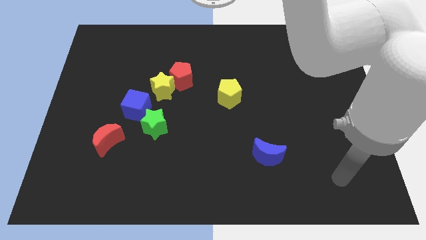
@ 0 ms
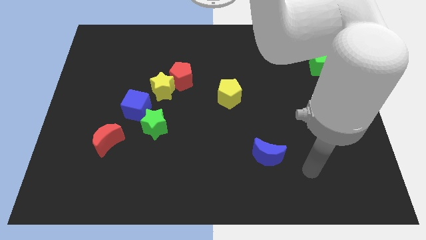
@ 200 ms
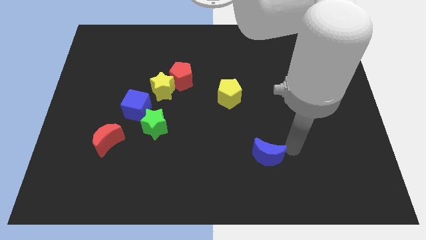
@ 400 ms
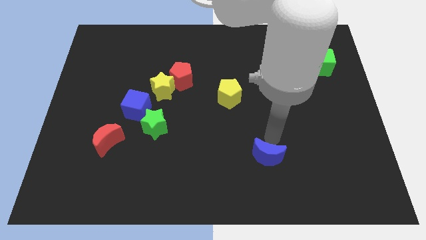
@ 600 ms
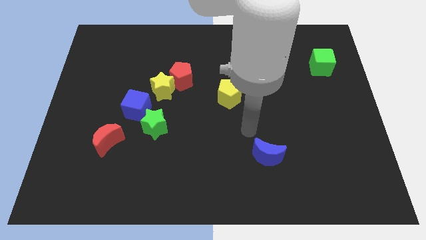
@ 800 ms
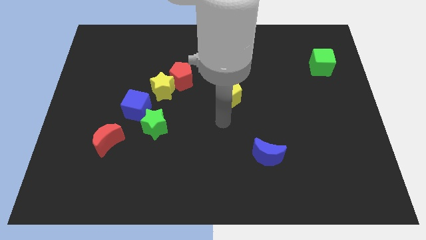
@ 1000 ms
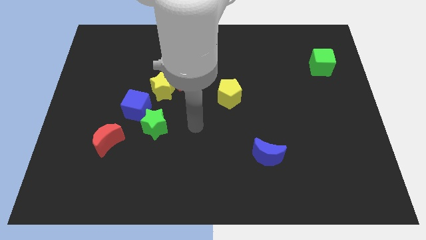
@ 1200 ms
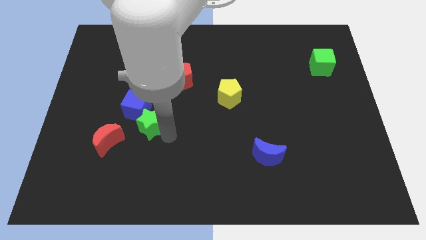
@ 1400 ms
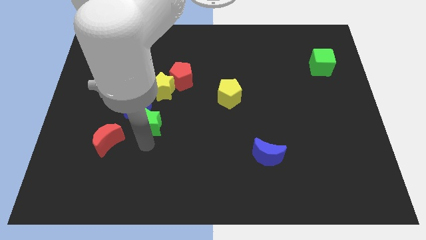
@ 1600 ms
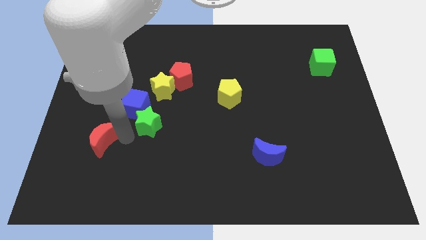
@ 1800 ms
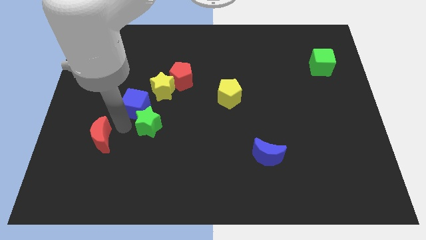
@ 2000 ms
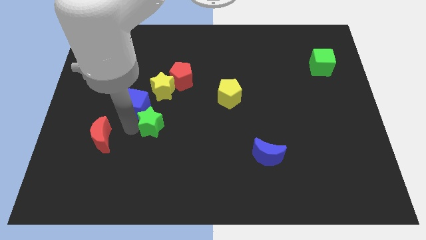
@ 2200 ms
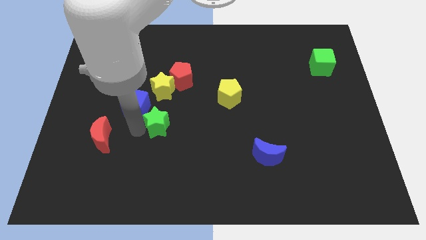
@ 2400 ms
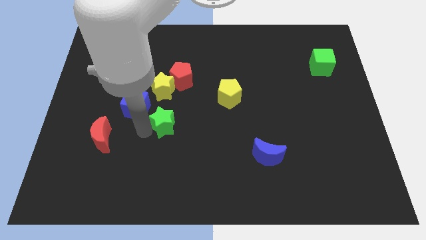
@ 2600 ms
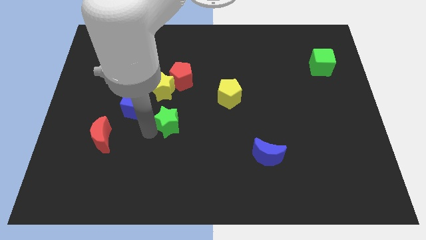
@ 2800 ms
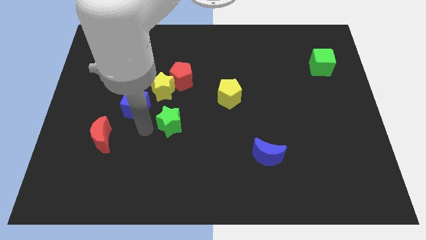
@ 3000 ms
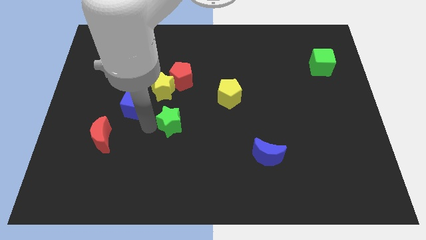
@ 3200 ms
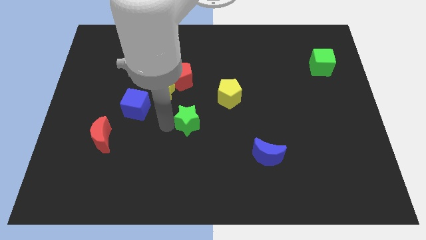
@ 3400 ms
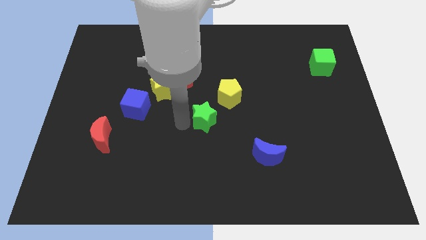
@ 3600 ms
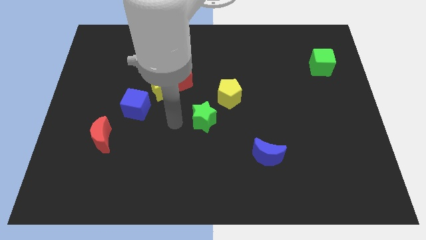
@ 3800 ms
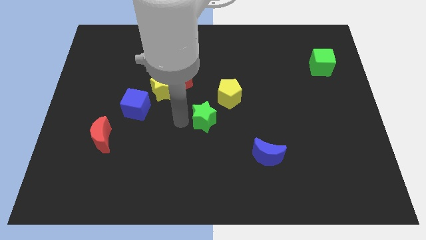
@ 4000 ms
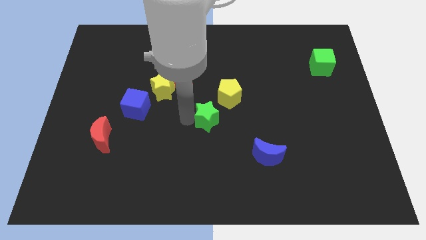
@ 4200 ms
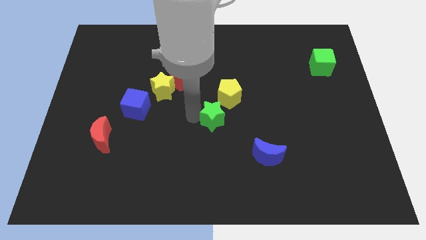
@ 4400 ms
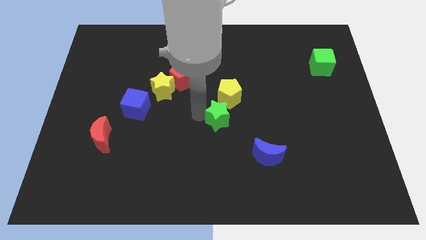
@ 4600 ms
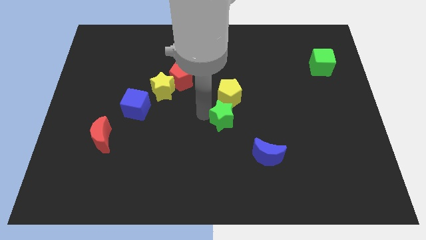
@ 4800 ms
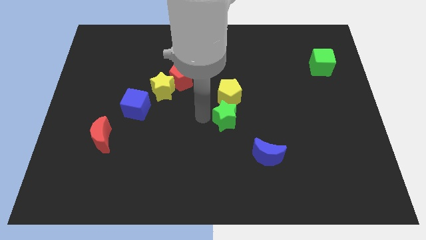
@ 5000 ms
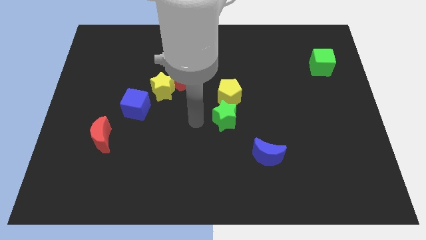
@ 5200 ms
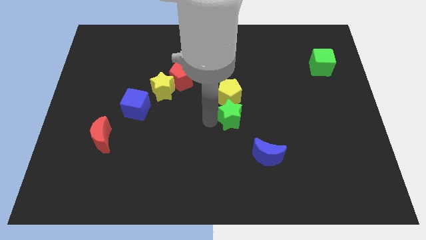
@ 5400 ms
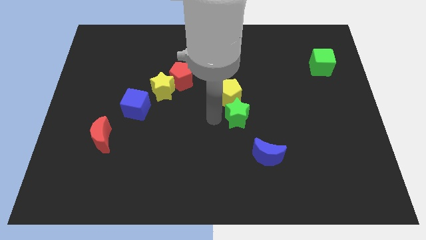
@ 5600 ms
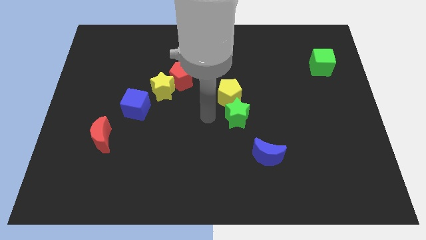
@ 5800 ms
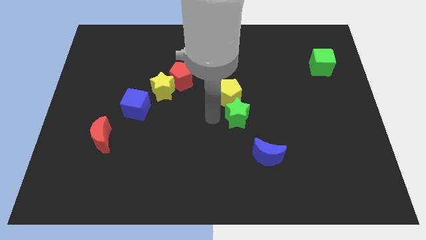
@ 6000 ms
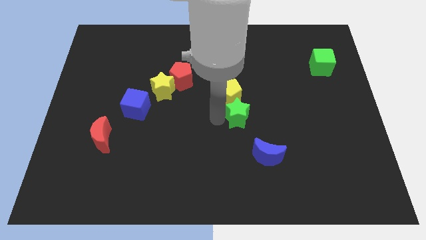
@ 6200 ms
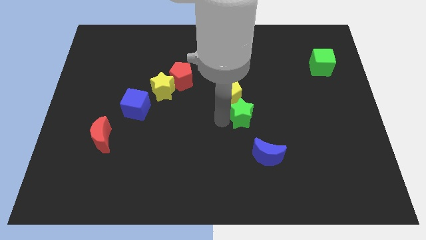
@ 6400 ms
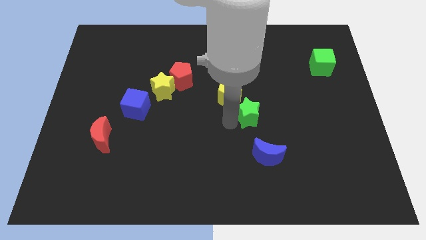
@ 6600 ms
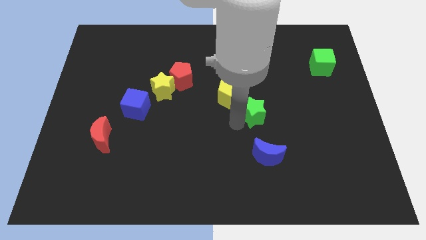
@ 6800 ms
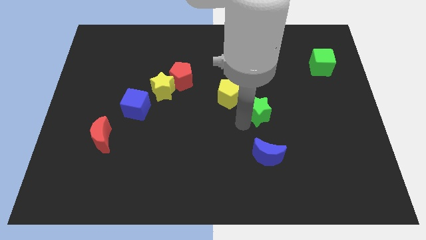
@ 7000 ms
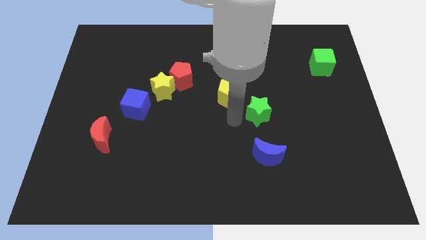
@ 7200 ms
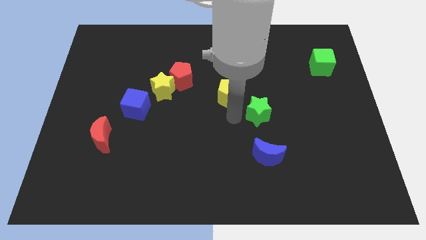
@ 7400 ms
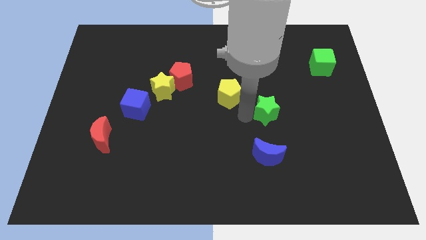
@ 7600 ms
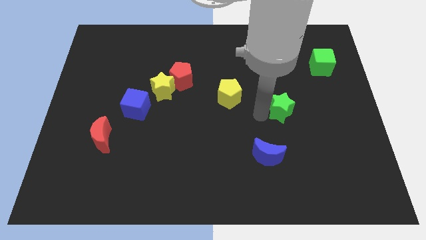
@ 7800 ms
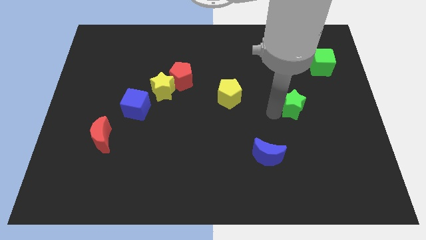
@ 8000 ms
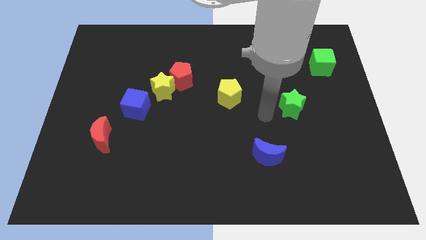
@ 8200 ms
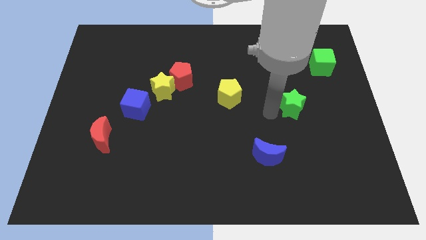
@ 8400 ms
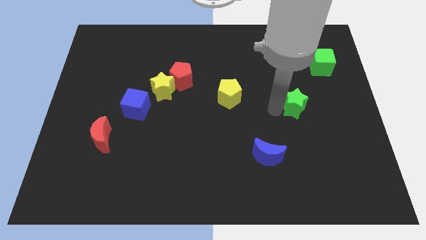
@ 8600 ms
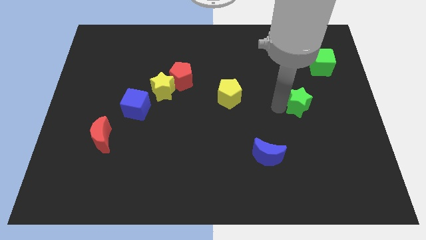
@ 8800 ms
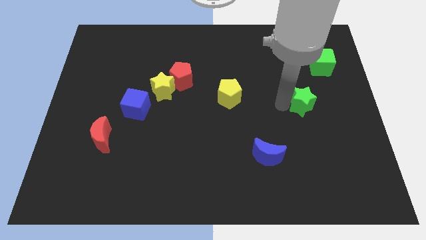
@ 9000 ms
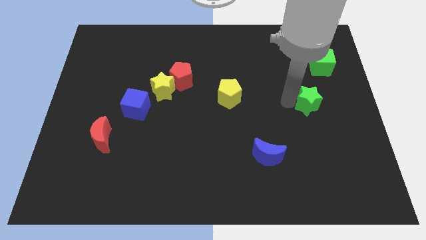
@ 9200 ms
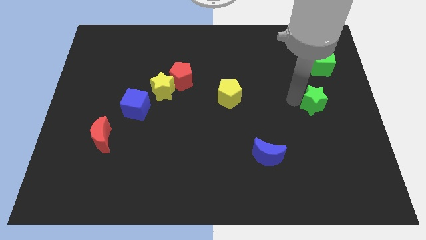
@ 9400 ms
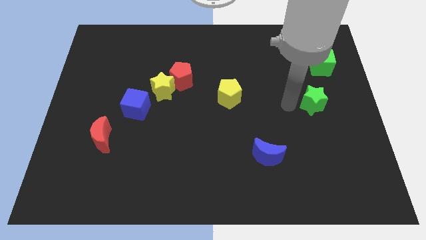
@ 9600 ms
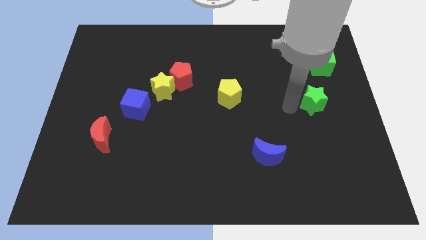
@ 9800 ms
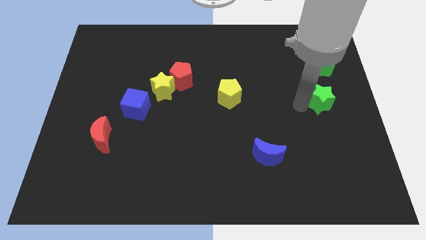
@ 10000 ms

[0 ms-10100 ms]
move the green star to the center right

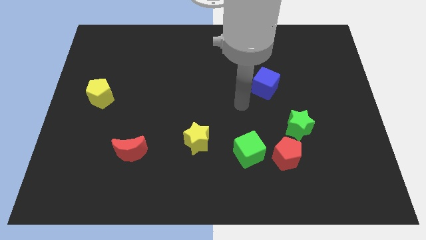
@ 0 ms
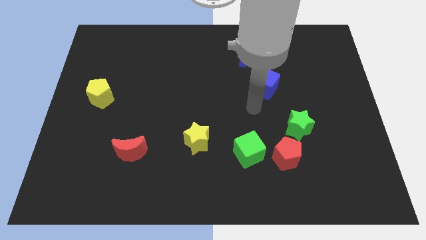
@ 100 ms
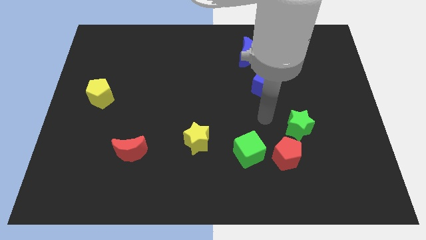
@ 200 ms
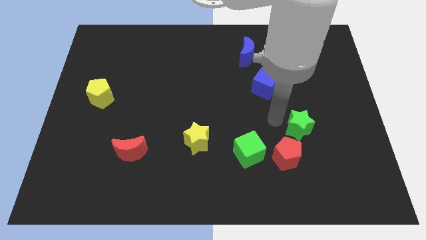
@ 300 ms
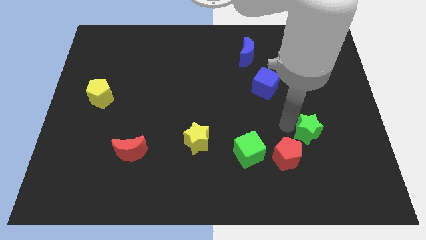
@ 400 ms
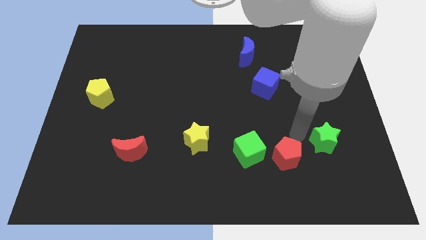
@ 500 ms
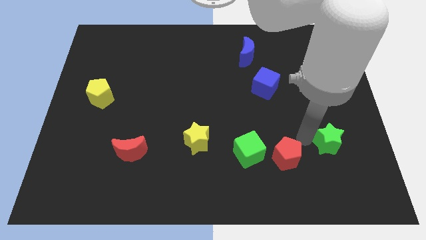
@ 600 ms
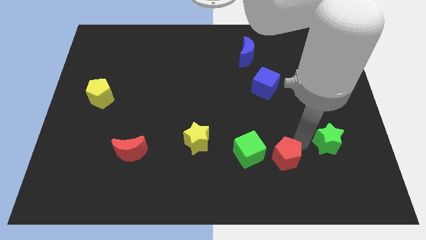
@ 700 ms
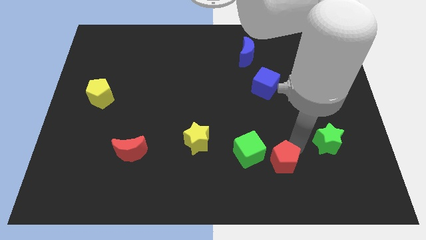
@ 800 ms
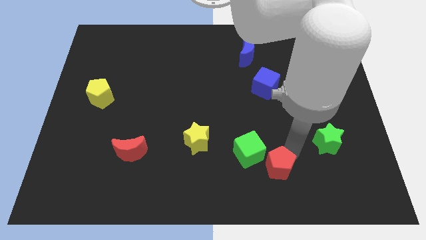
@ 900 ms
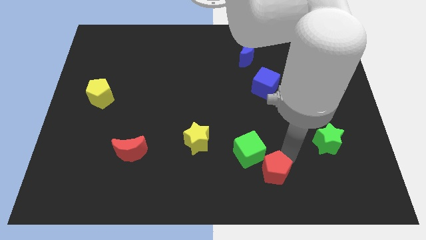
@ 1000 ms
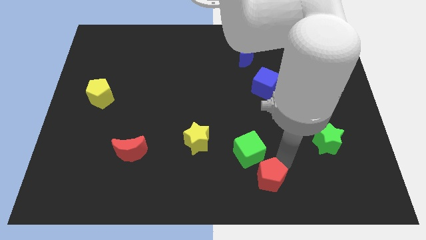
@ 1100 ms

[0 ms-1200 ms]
move the red pentagon to the bottom side

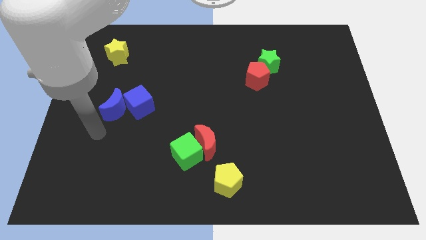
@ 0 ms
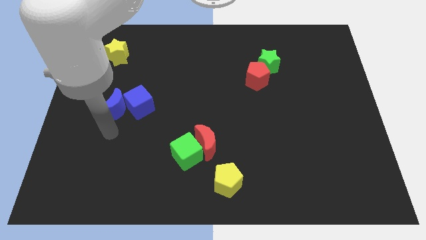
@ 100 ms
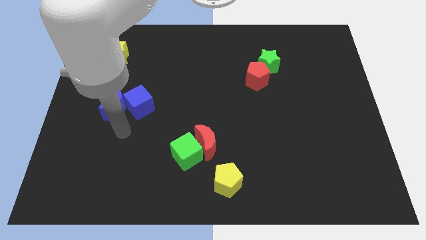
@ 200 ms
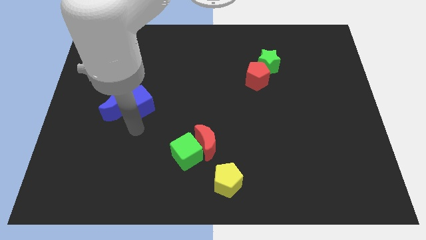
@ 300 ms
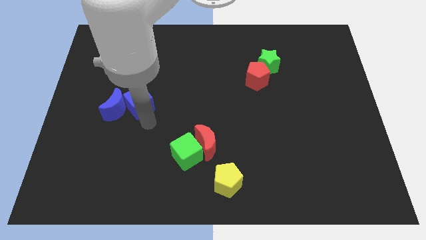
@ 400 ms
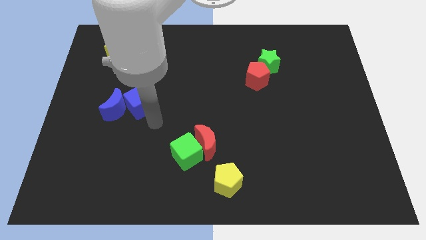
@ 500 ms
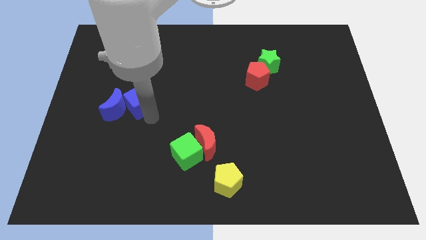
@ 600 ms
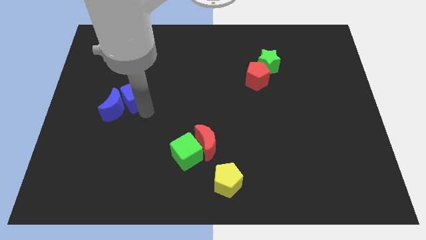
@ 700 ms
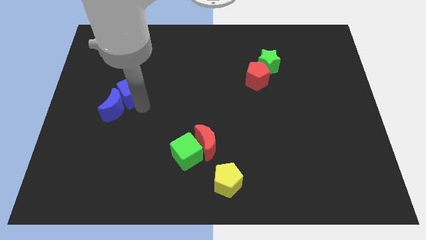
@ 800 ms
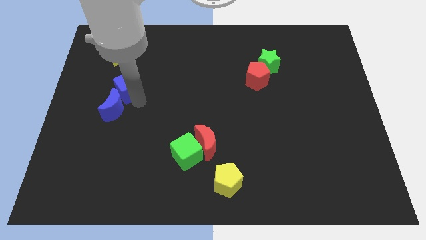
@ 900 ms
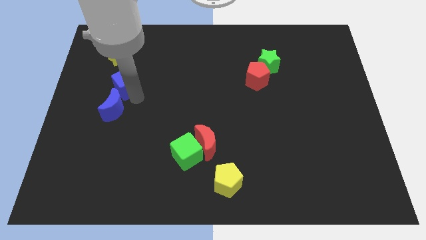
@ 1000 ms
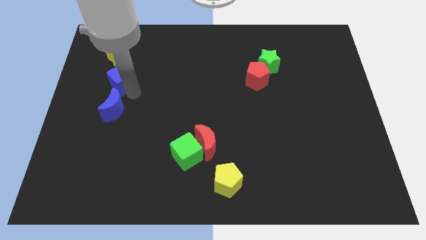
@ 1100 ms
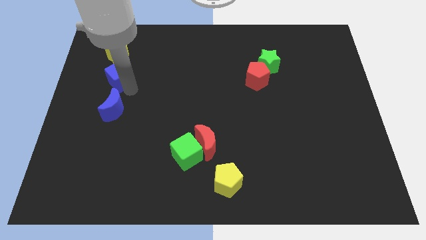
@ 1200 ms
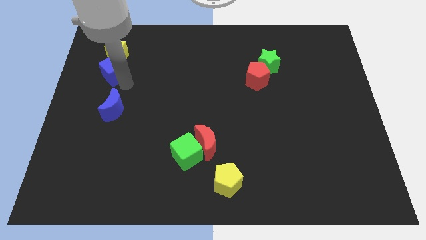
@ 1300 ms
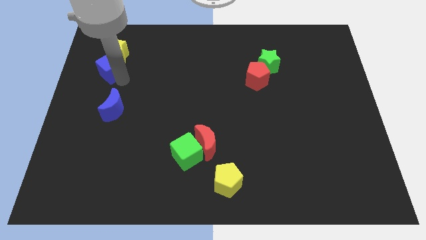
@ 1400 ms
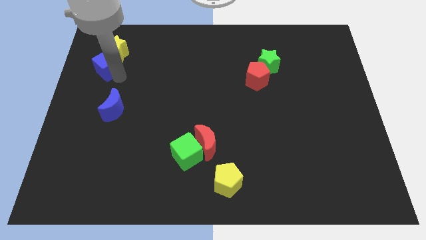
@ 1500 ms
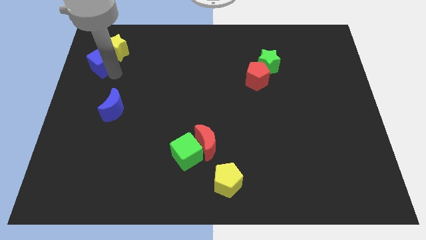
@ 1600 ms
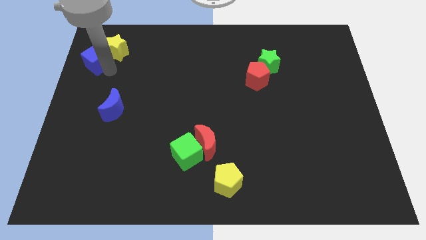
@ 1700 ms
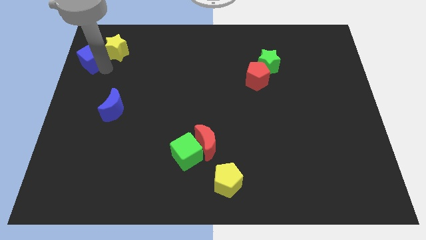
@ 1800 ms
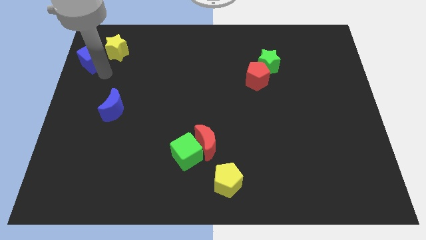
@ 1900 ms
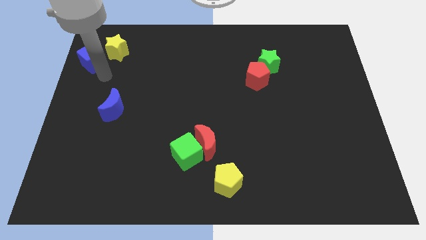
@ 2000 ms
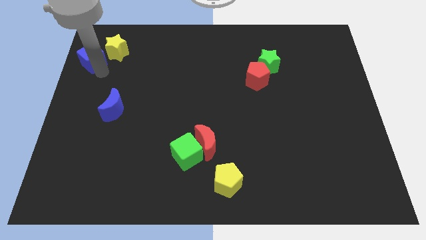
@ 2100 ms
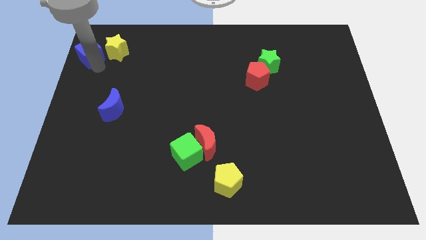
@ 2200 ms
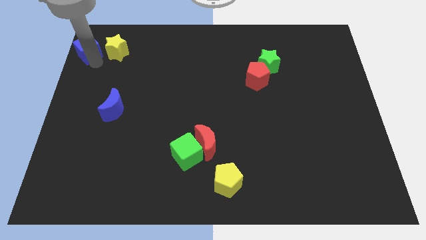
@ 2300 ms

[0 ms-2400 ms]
move the blue cube to the upper left corner
